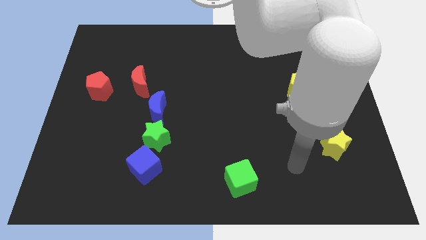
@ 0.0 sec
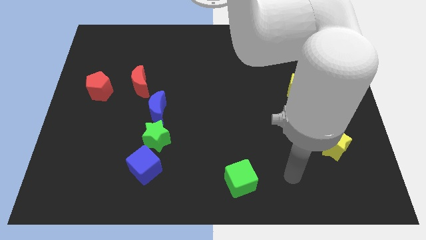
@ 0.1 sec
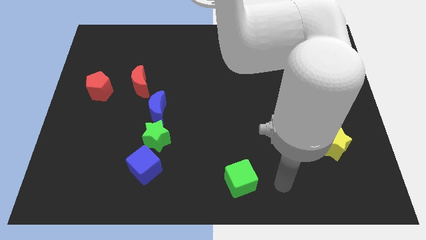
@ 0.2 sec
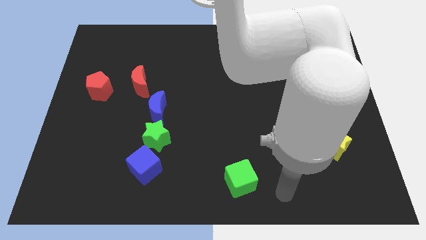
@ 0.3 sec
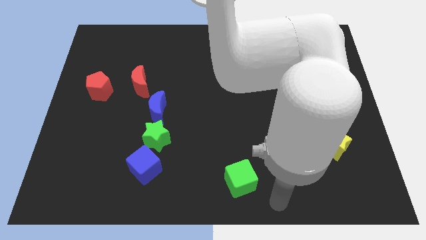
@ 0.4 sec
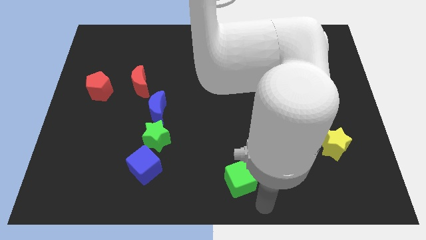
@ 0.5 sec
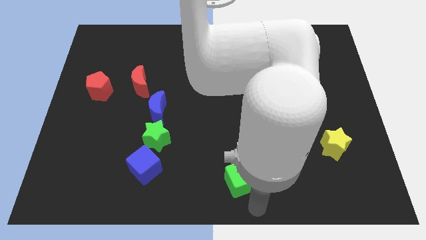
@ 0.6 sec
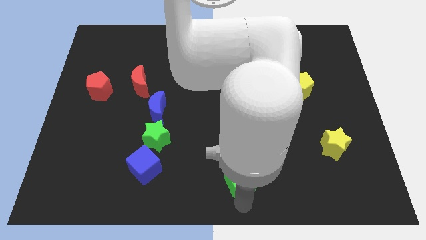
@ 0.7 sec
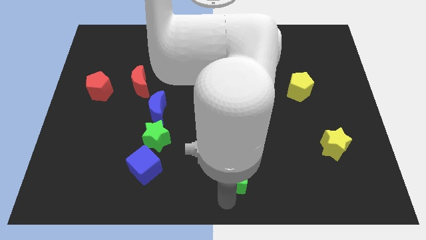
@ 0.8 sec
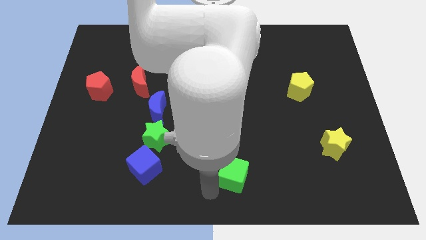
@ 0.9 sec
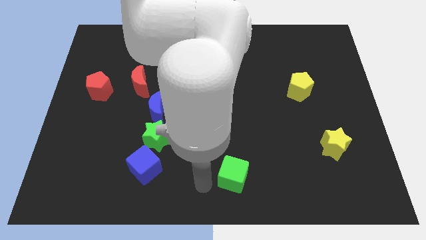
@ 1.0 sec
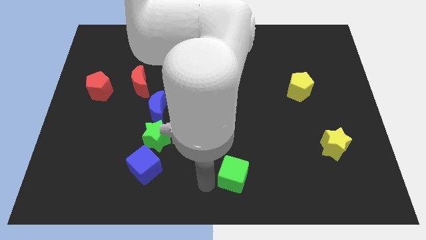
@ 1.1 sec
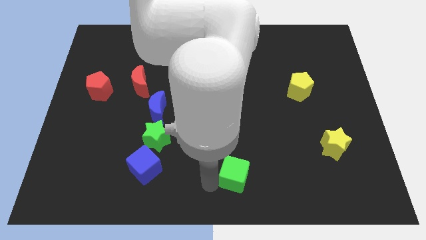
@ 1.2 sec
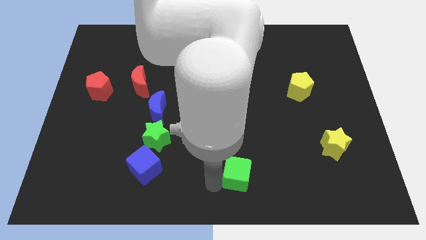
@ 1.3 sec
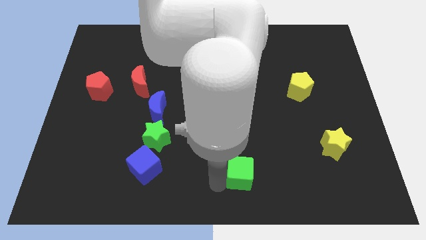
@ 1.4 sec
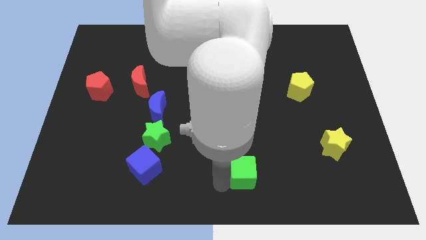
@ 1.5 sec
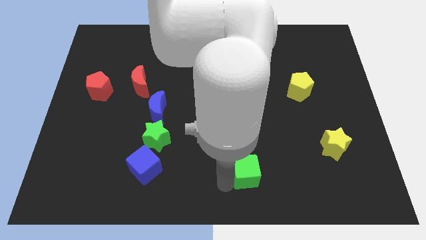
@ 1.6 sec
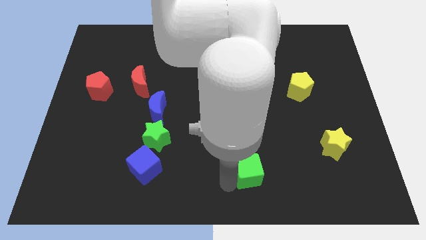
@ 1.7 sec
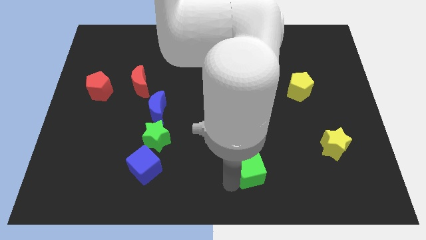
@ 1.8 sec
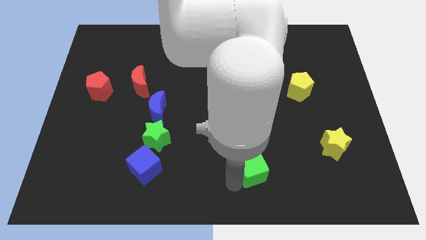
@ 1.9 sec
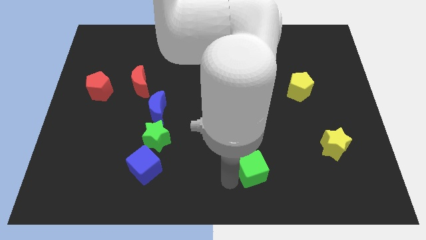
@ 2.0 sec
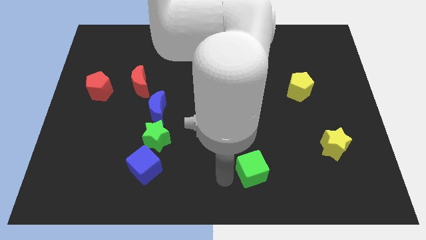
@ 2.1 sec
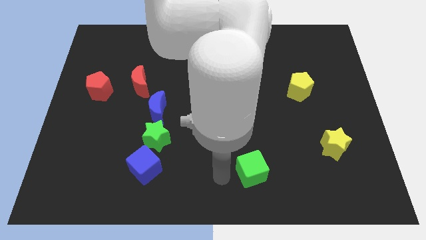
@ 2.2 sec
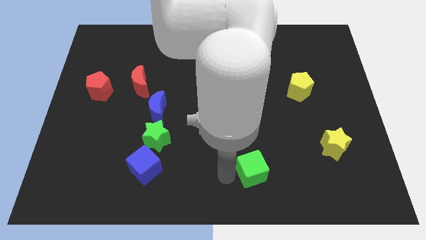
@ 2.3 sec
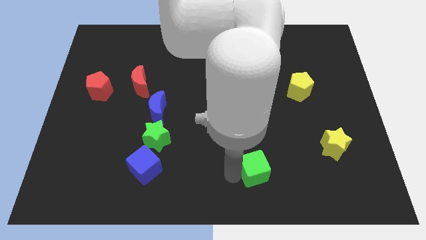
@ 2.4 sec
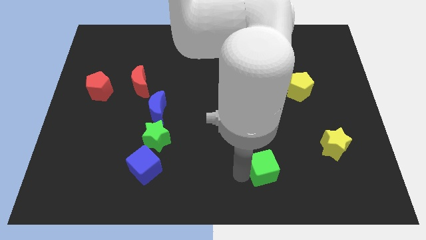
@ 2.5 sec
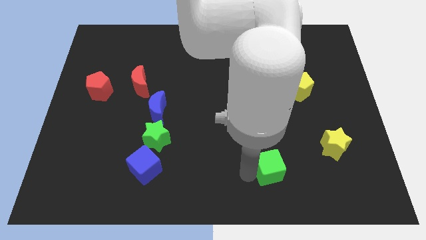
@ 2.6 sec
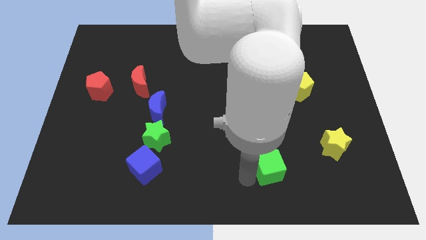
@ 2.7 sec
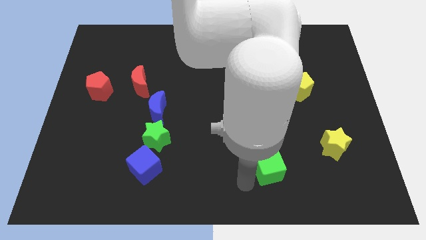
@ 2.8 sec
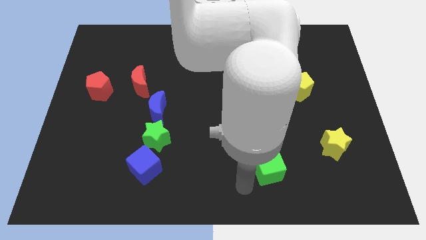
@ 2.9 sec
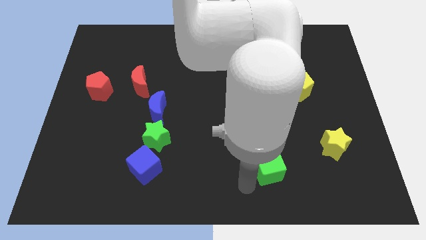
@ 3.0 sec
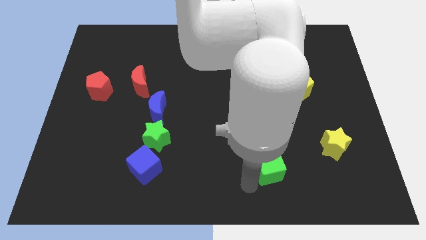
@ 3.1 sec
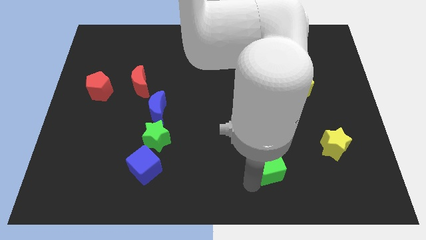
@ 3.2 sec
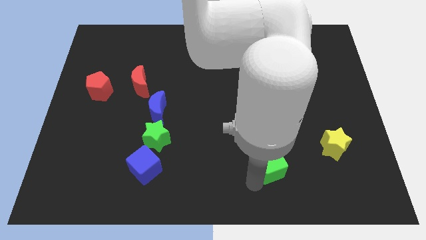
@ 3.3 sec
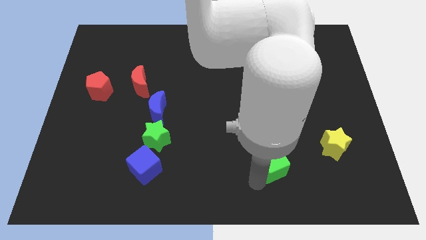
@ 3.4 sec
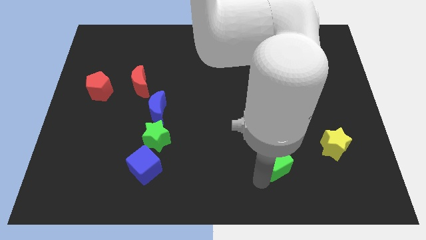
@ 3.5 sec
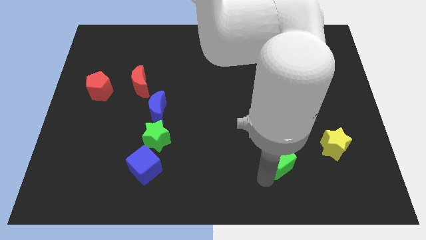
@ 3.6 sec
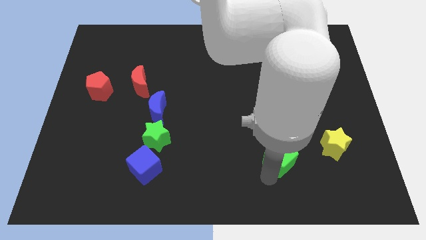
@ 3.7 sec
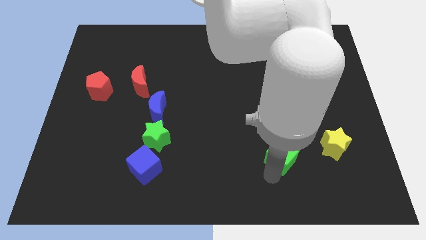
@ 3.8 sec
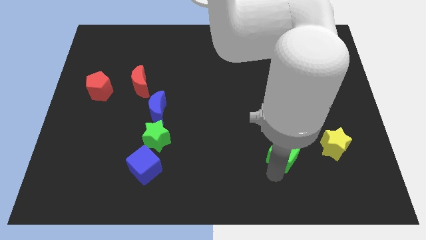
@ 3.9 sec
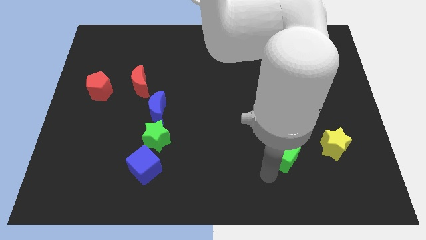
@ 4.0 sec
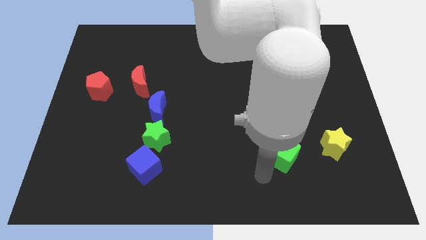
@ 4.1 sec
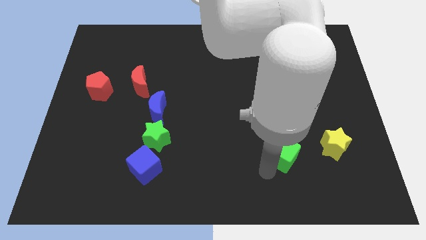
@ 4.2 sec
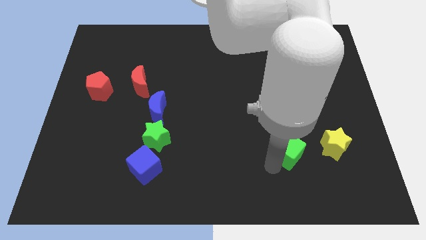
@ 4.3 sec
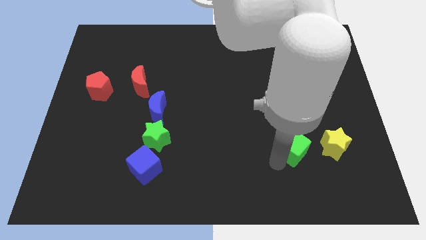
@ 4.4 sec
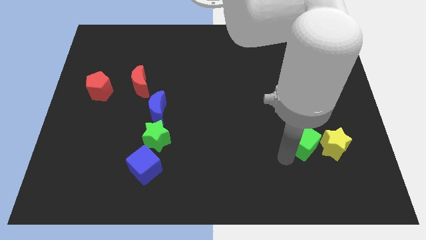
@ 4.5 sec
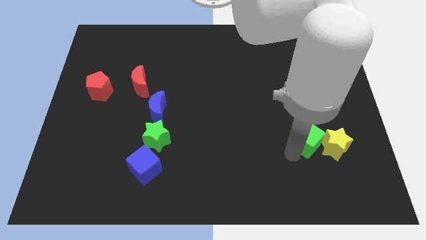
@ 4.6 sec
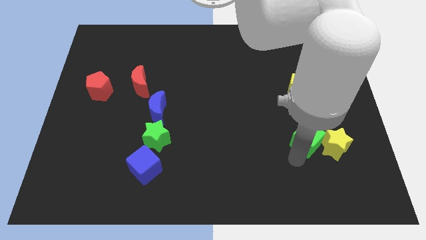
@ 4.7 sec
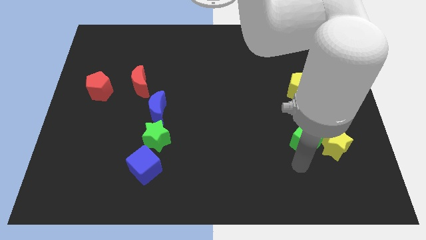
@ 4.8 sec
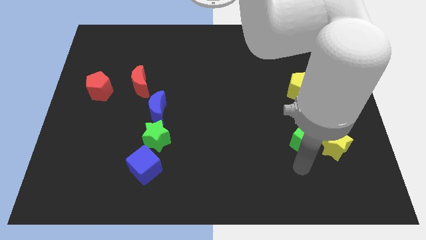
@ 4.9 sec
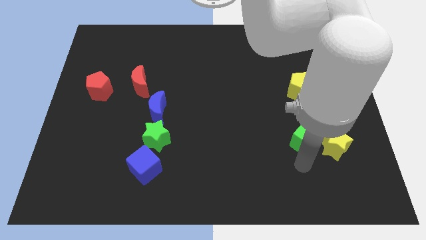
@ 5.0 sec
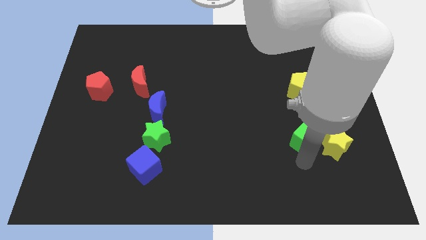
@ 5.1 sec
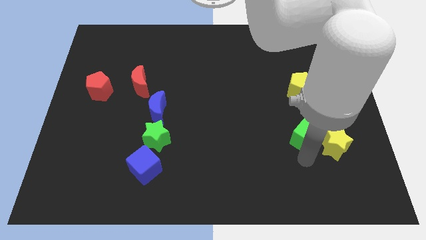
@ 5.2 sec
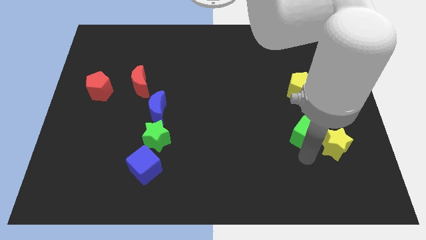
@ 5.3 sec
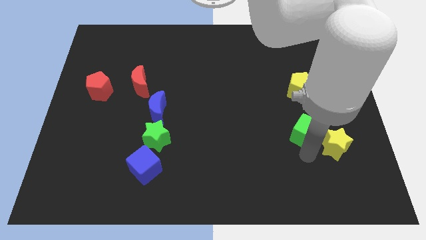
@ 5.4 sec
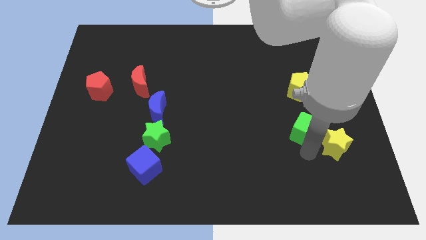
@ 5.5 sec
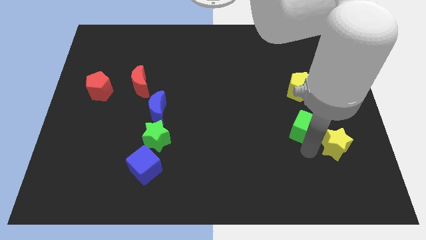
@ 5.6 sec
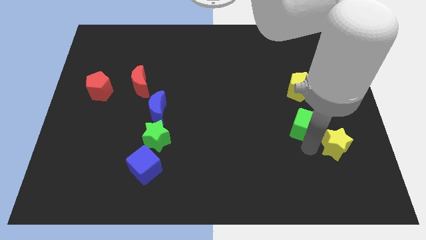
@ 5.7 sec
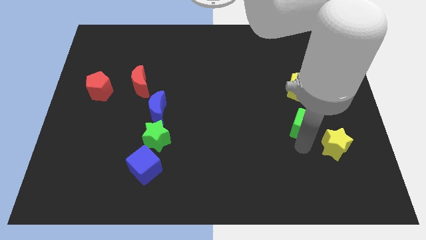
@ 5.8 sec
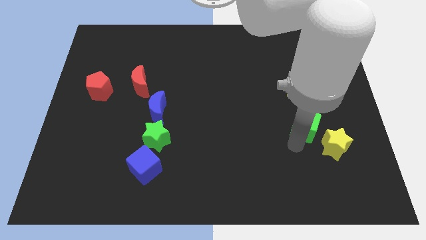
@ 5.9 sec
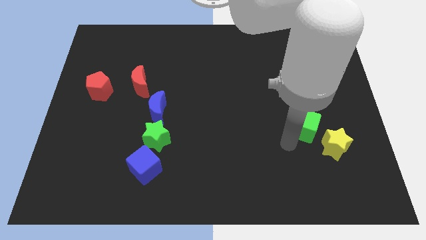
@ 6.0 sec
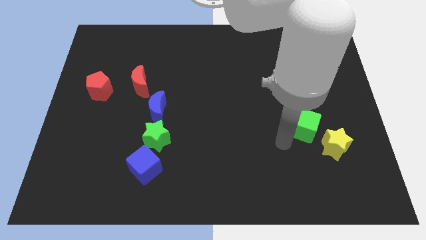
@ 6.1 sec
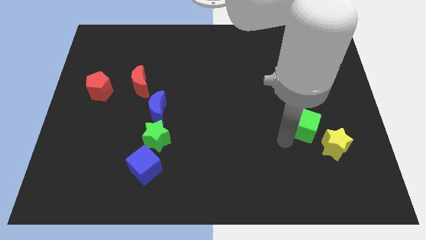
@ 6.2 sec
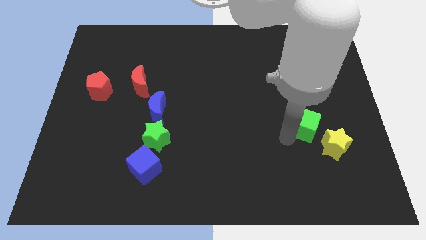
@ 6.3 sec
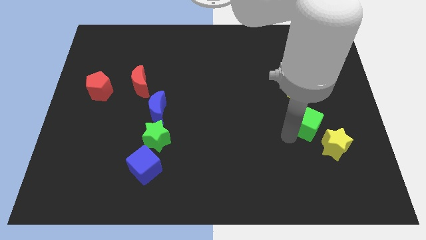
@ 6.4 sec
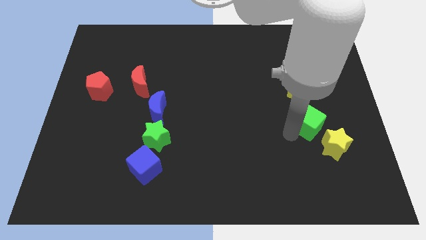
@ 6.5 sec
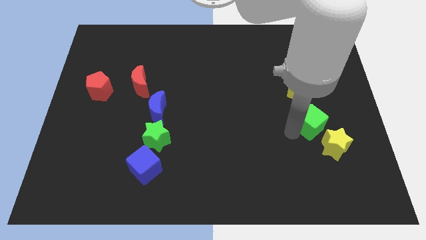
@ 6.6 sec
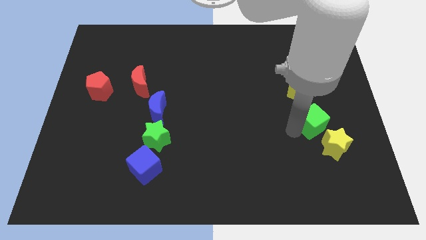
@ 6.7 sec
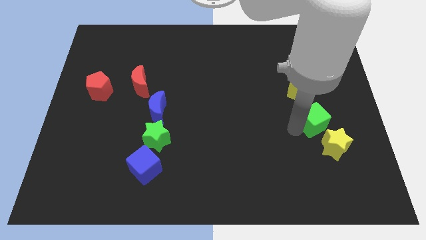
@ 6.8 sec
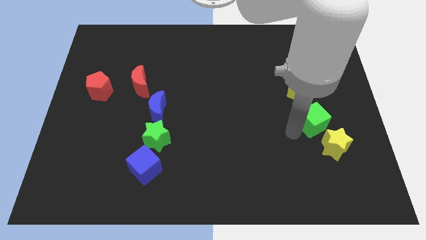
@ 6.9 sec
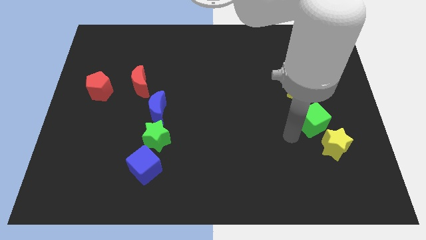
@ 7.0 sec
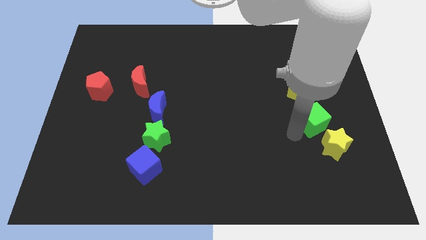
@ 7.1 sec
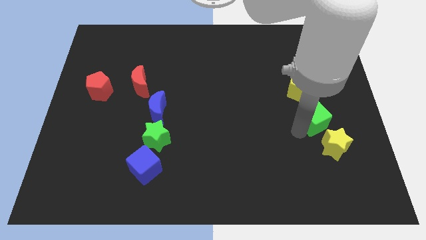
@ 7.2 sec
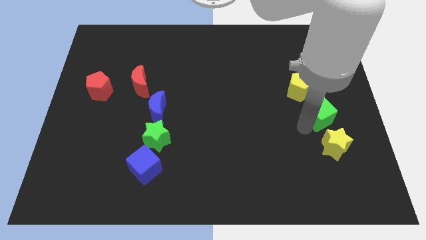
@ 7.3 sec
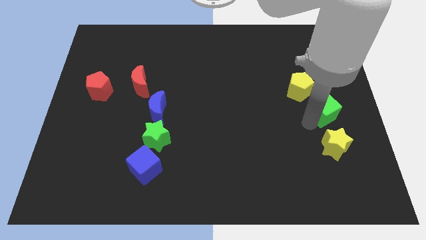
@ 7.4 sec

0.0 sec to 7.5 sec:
push the green cube to the right side
